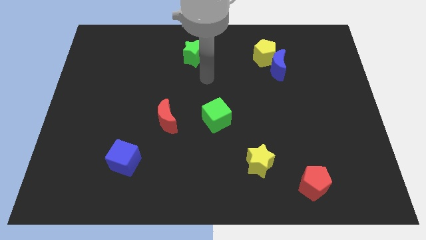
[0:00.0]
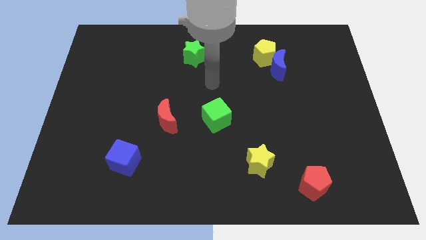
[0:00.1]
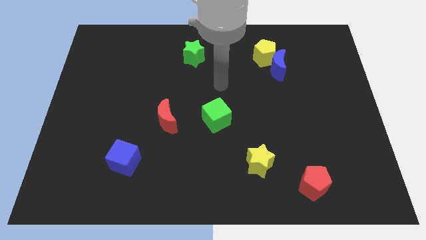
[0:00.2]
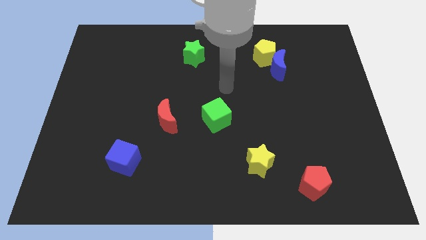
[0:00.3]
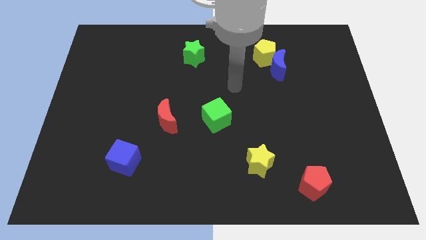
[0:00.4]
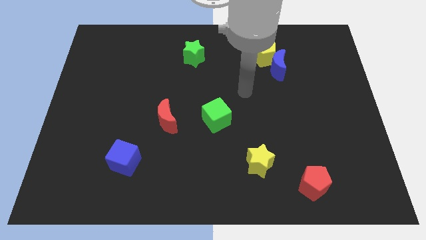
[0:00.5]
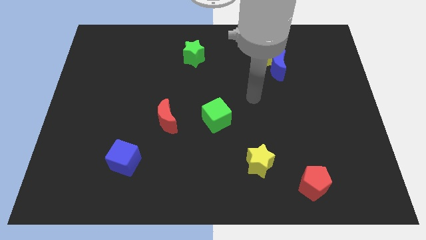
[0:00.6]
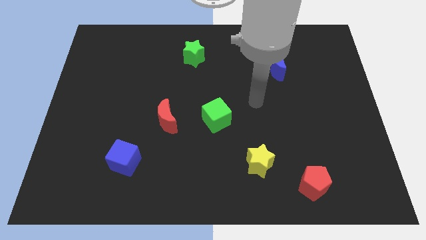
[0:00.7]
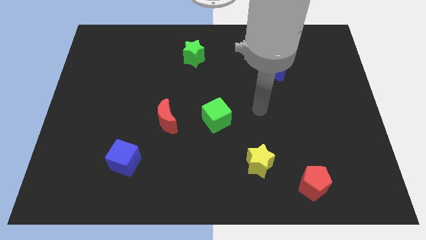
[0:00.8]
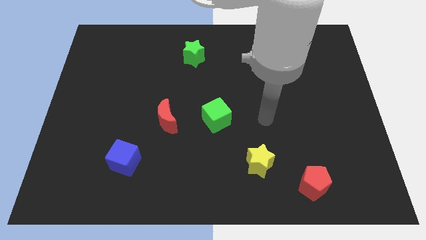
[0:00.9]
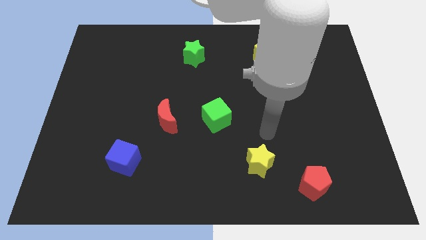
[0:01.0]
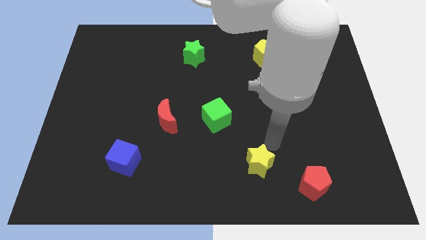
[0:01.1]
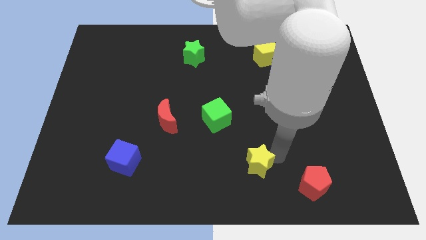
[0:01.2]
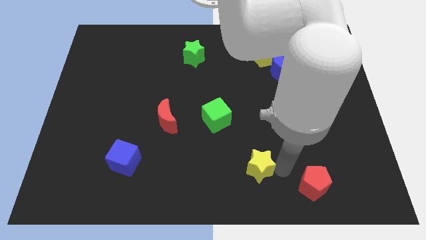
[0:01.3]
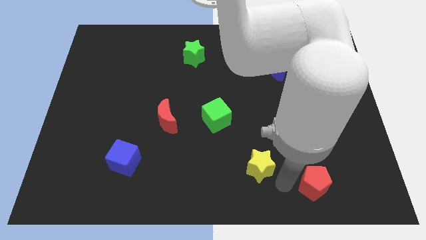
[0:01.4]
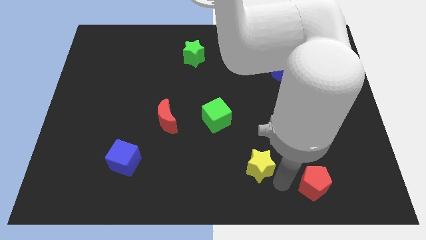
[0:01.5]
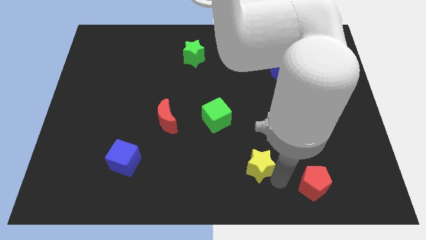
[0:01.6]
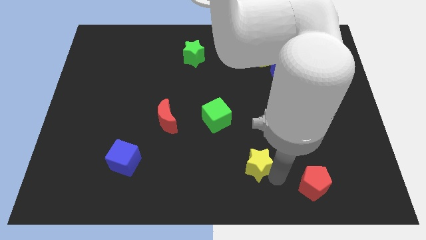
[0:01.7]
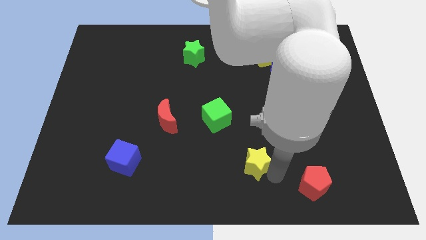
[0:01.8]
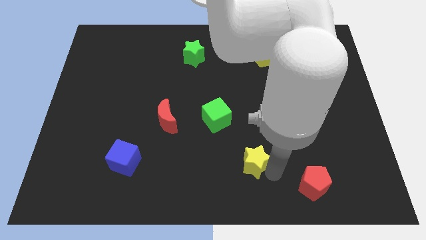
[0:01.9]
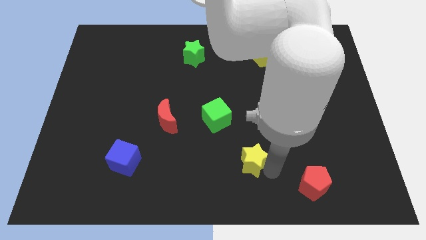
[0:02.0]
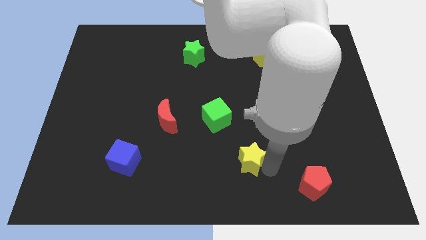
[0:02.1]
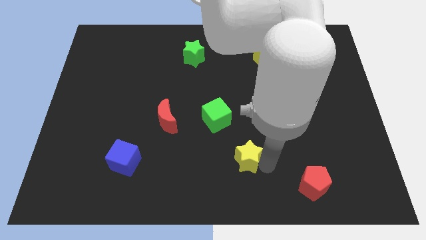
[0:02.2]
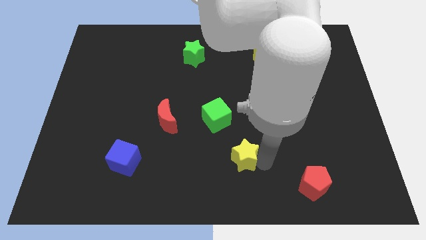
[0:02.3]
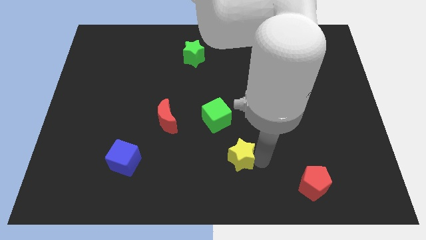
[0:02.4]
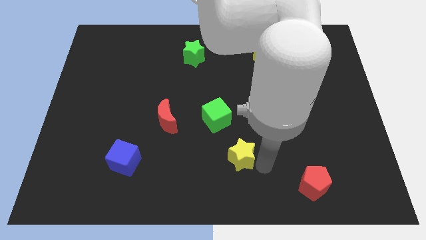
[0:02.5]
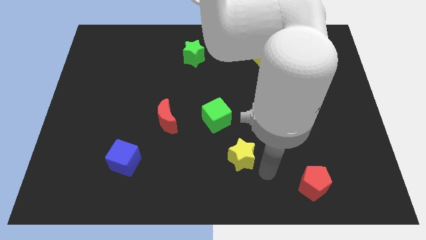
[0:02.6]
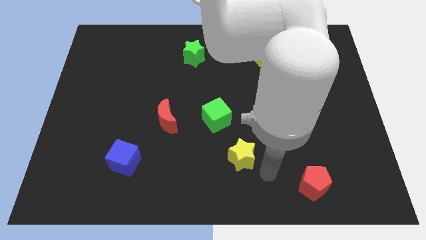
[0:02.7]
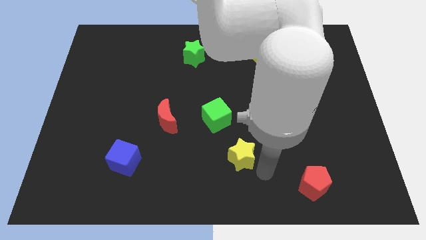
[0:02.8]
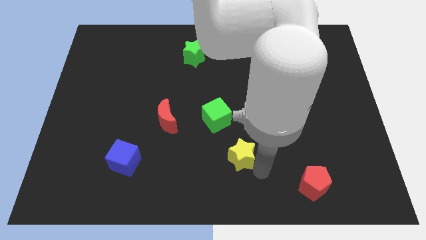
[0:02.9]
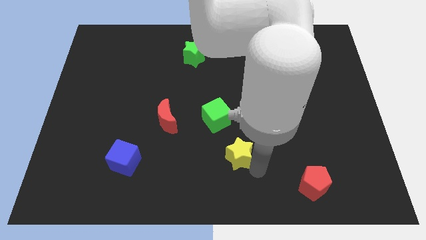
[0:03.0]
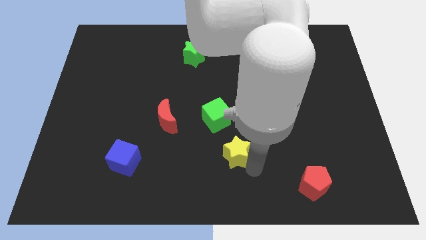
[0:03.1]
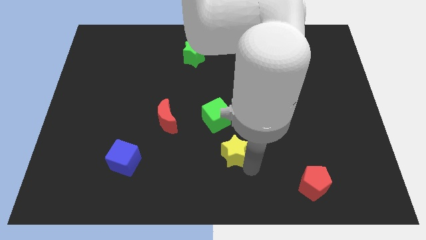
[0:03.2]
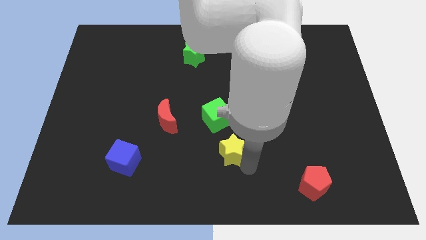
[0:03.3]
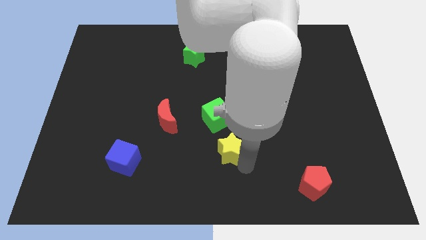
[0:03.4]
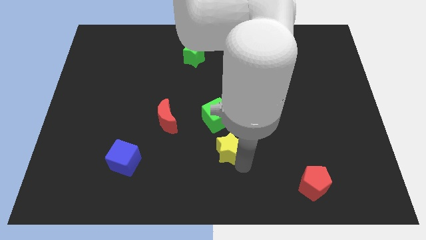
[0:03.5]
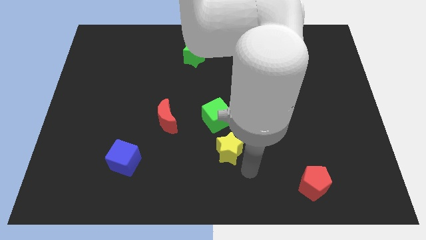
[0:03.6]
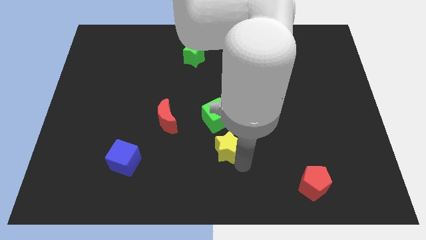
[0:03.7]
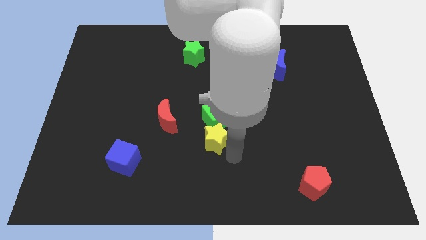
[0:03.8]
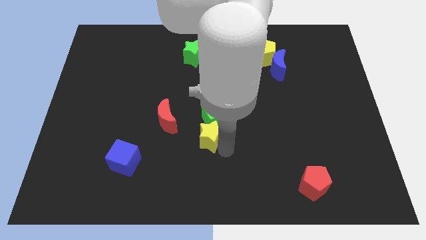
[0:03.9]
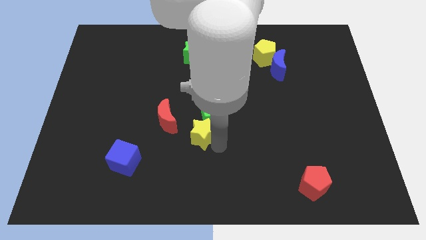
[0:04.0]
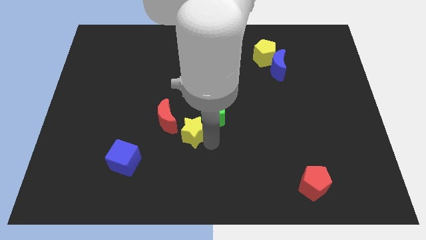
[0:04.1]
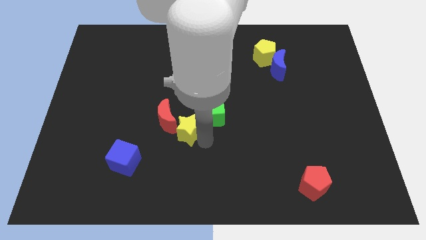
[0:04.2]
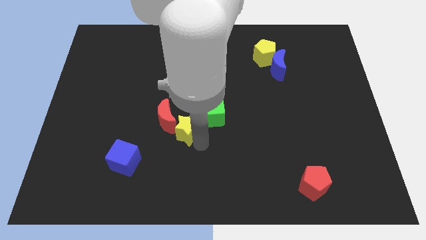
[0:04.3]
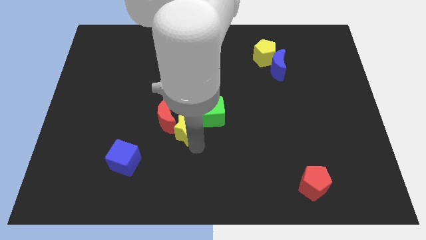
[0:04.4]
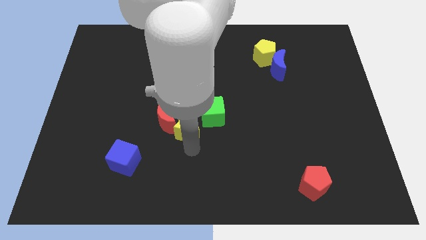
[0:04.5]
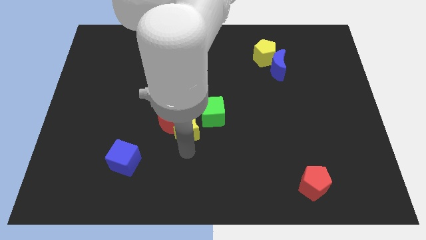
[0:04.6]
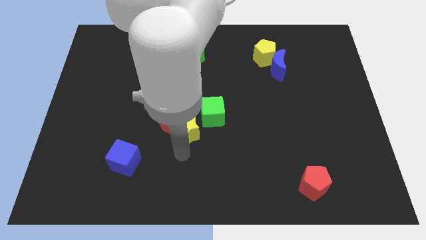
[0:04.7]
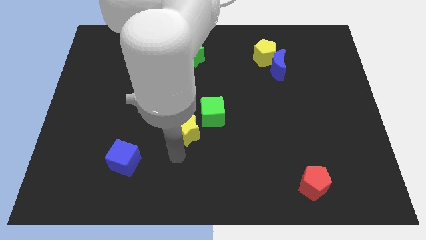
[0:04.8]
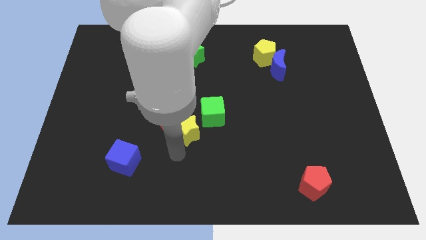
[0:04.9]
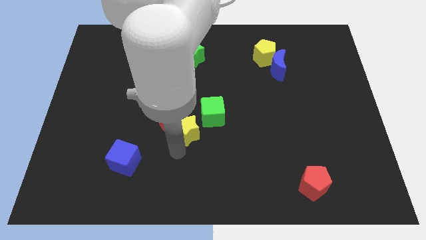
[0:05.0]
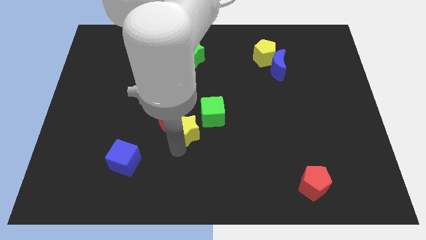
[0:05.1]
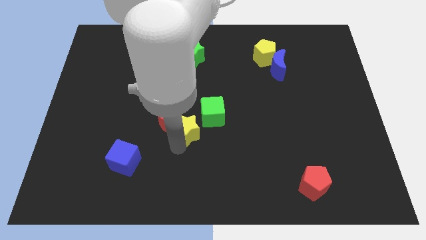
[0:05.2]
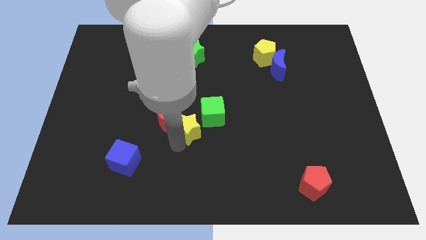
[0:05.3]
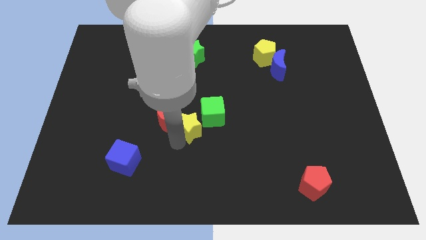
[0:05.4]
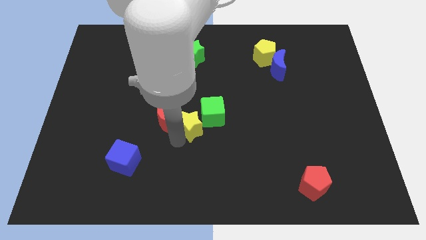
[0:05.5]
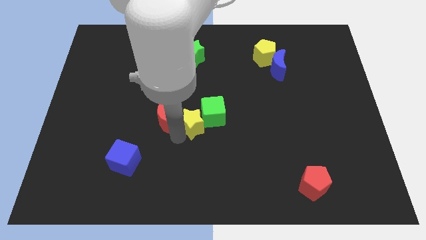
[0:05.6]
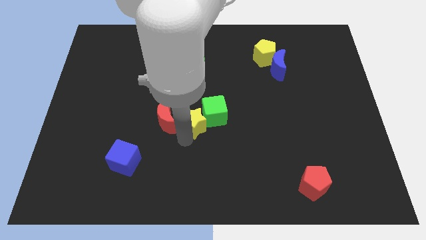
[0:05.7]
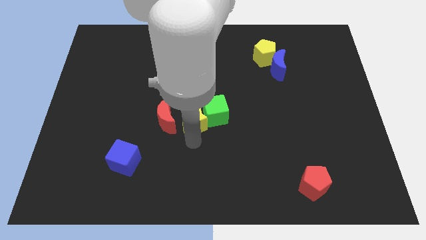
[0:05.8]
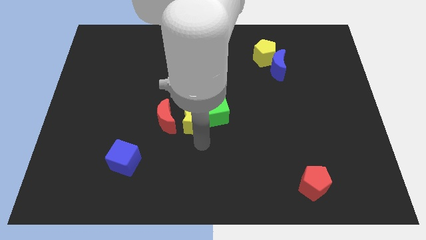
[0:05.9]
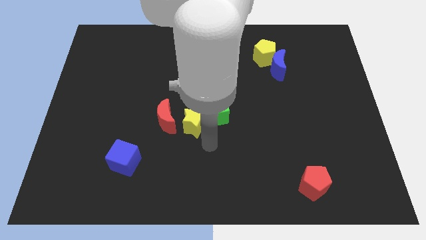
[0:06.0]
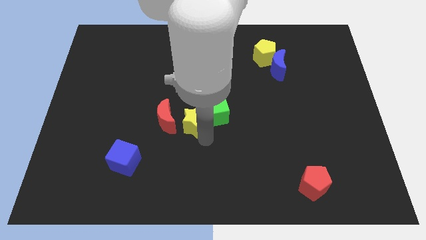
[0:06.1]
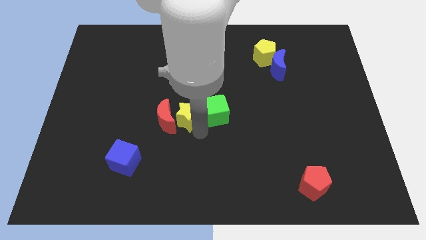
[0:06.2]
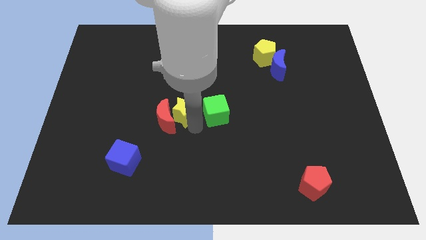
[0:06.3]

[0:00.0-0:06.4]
move the yellow star upwards and then to the left

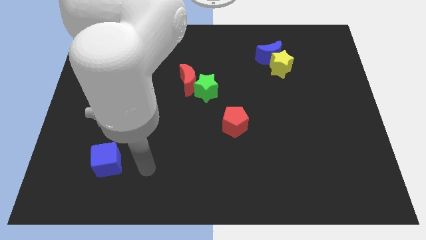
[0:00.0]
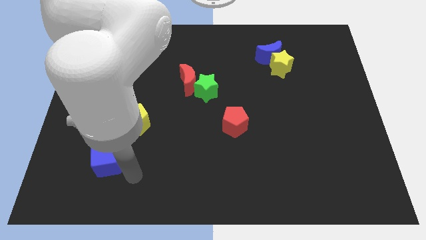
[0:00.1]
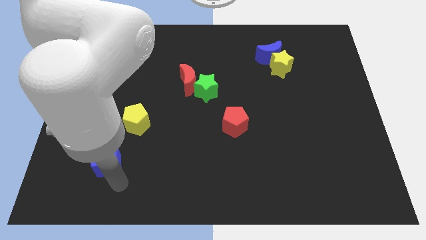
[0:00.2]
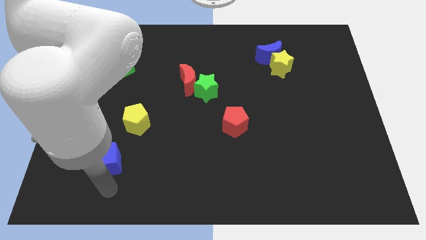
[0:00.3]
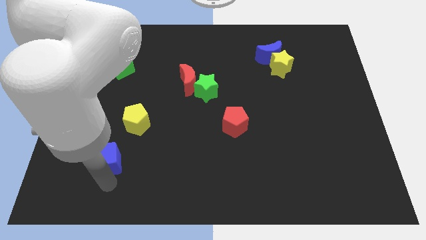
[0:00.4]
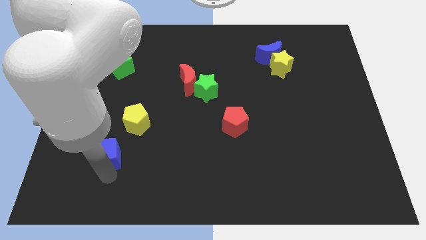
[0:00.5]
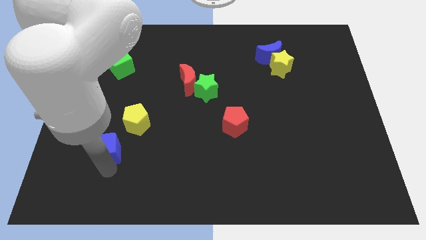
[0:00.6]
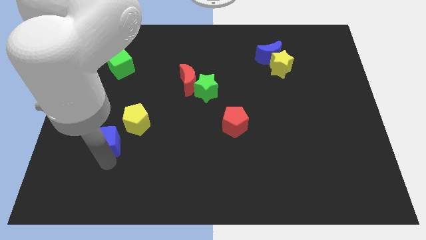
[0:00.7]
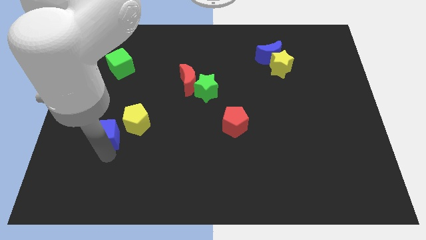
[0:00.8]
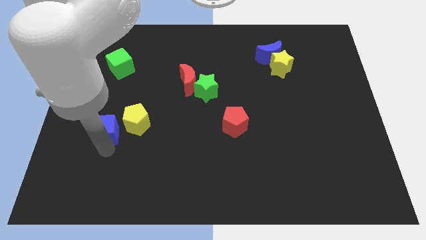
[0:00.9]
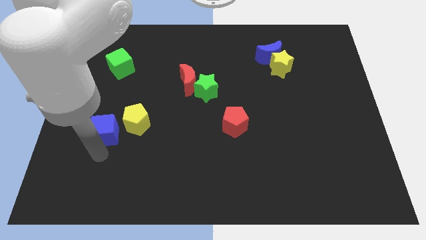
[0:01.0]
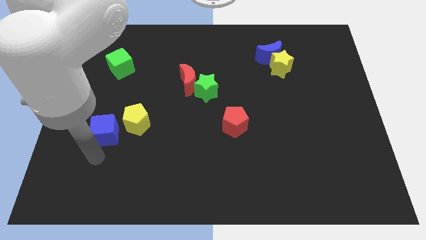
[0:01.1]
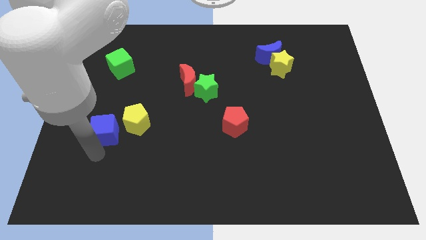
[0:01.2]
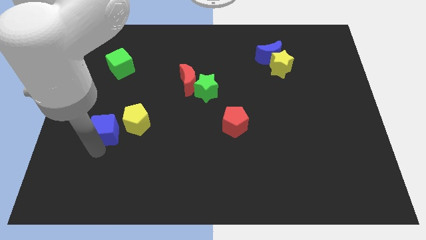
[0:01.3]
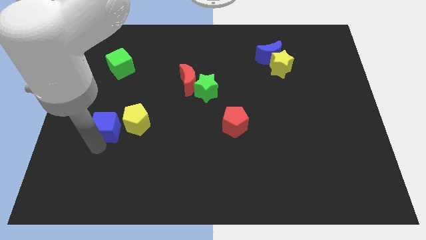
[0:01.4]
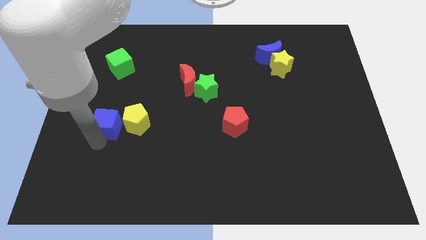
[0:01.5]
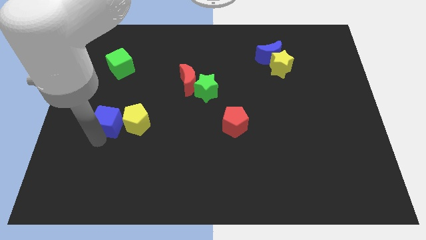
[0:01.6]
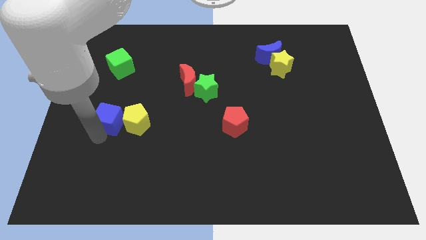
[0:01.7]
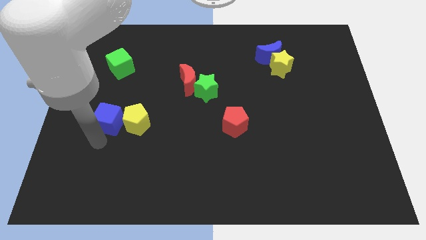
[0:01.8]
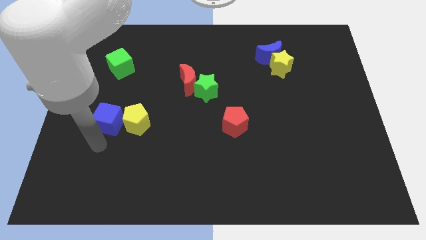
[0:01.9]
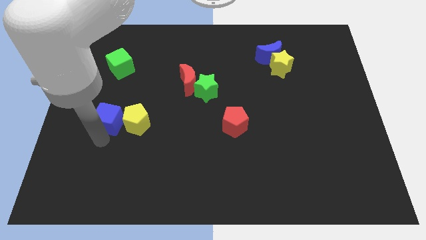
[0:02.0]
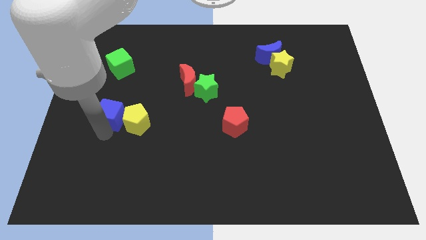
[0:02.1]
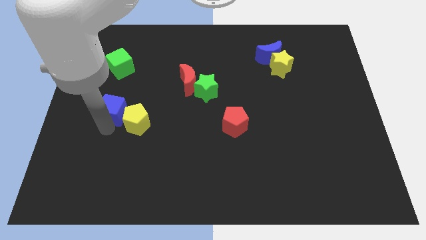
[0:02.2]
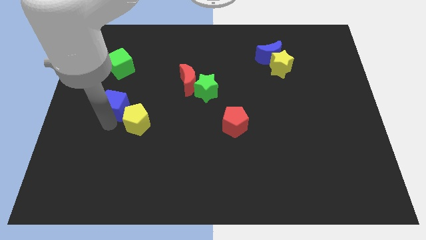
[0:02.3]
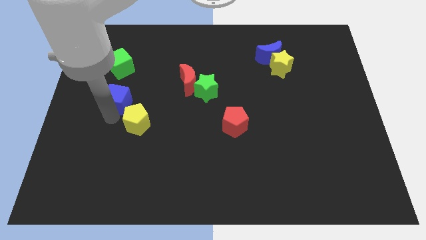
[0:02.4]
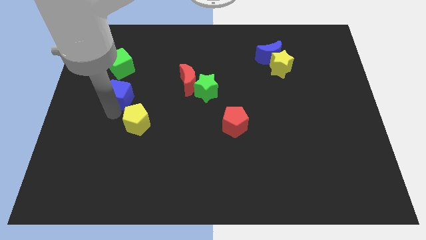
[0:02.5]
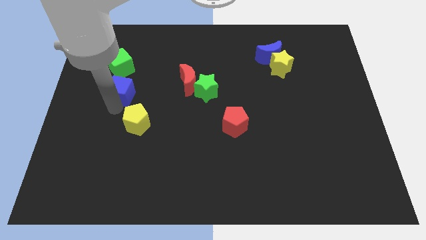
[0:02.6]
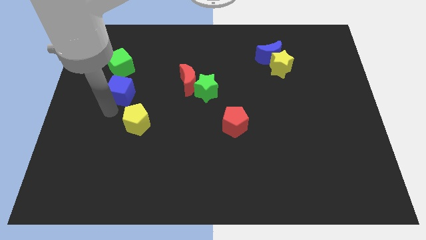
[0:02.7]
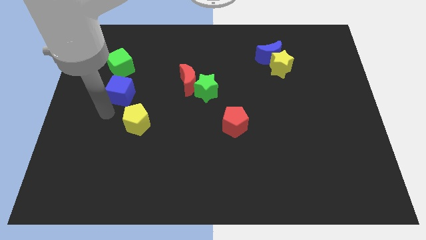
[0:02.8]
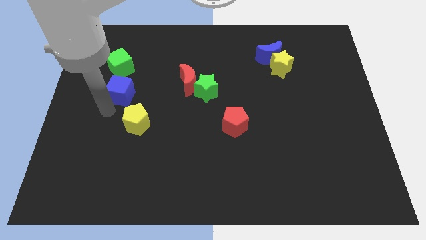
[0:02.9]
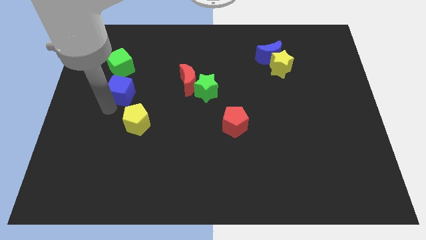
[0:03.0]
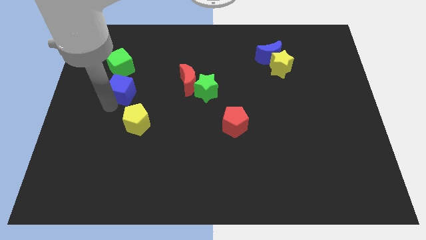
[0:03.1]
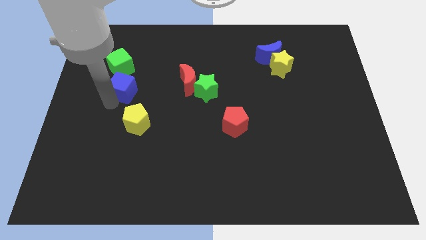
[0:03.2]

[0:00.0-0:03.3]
move the blue cube up
